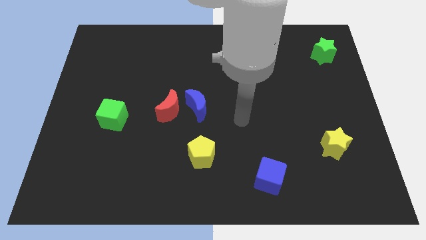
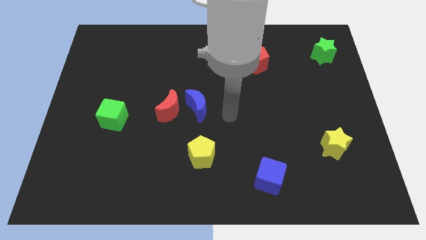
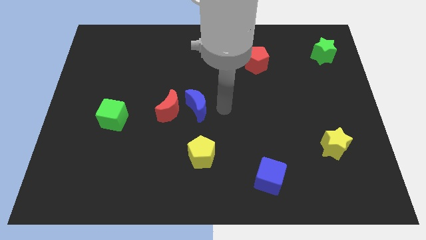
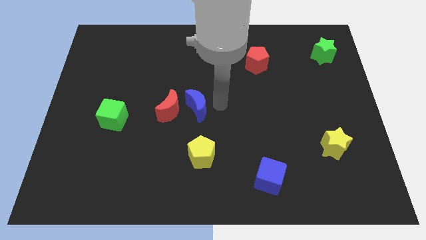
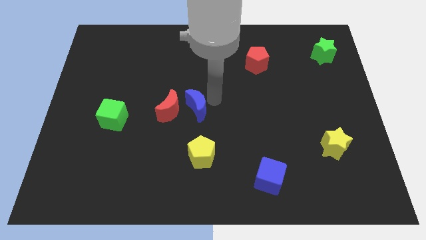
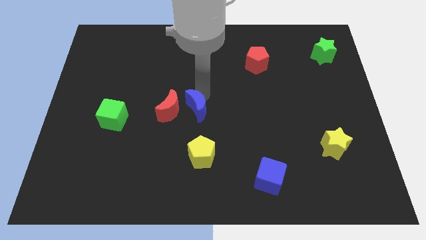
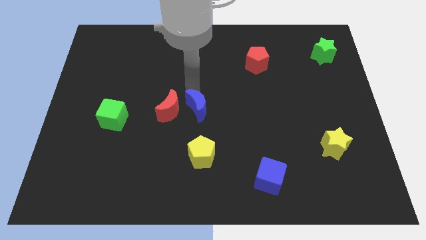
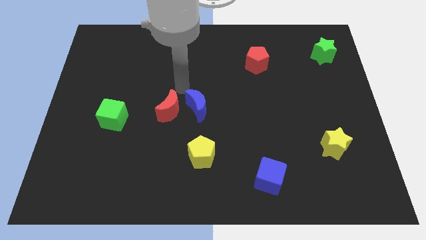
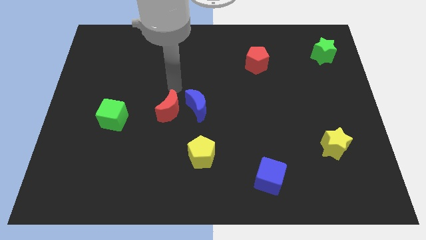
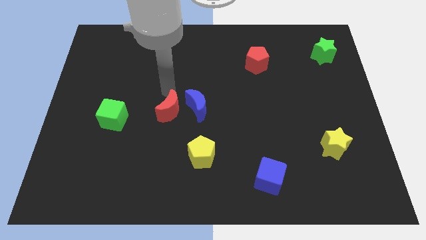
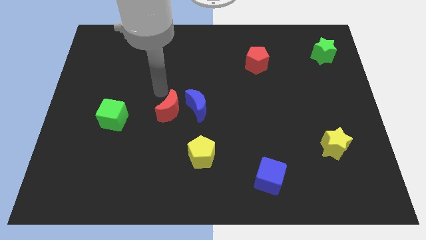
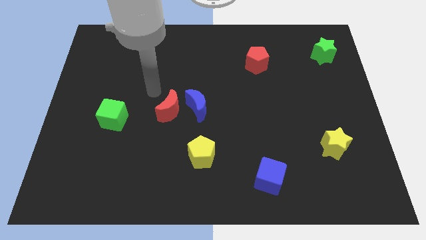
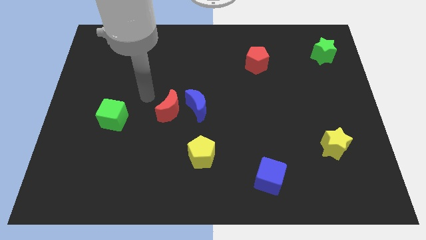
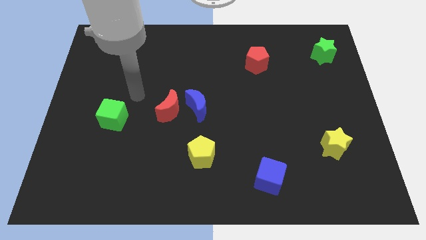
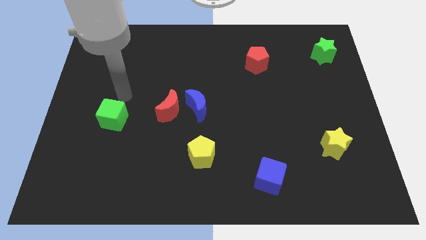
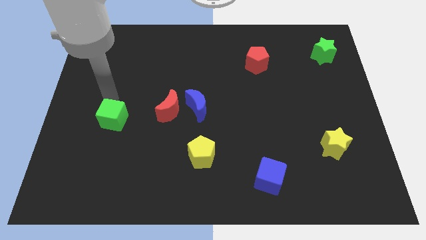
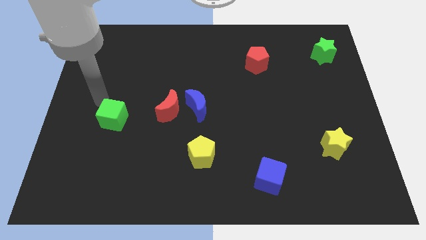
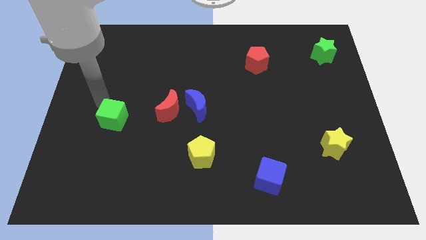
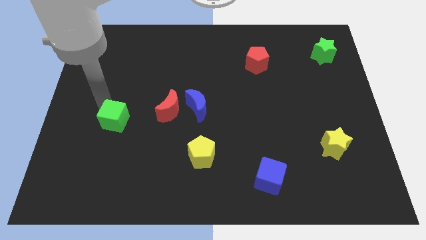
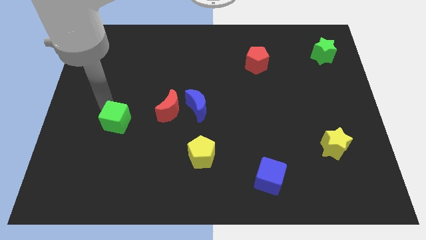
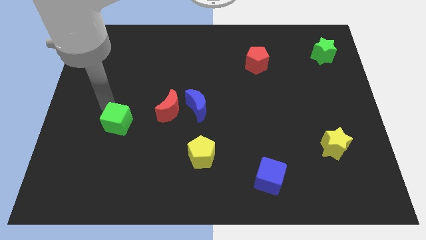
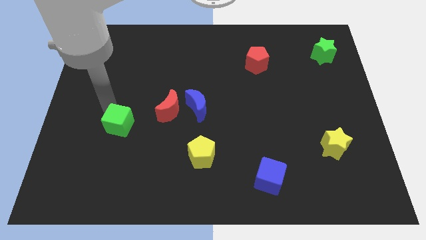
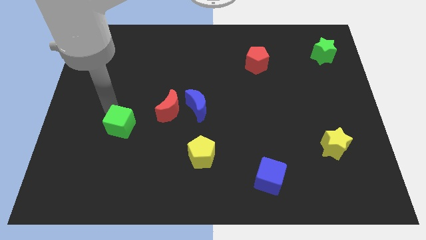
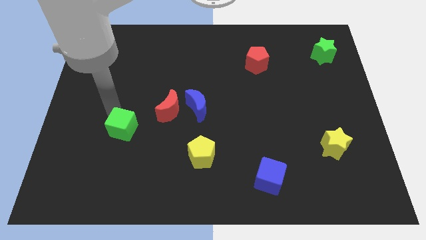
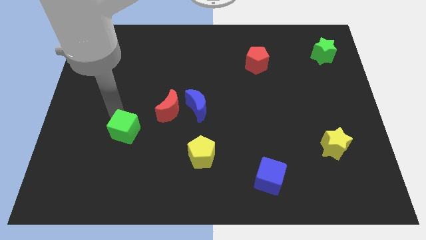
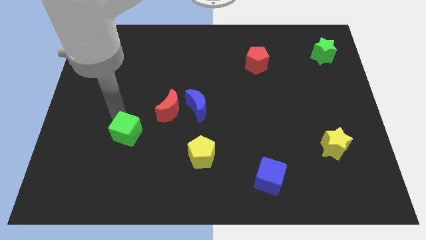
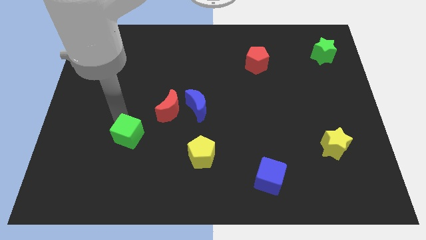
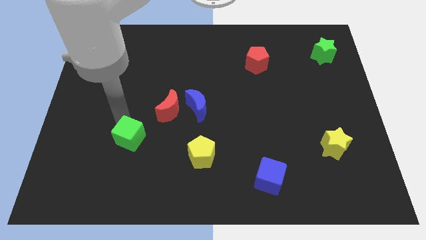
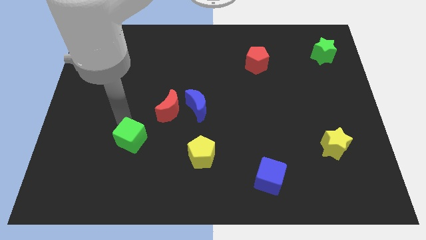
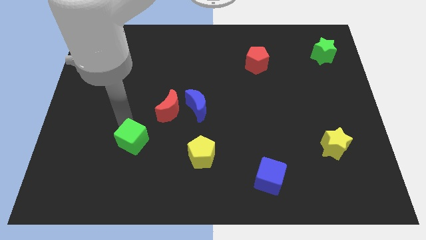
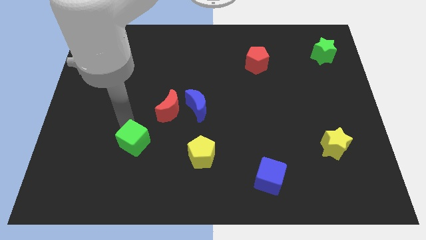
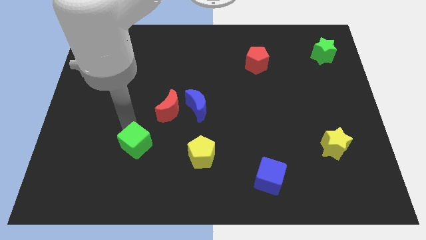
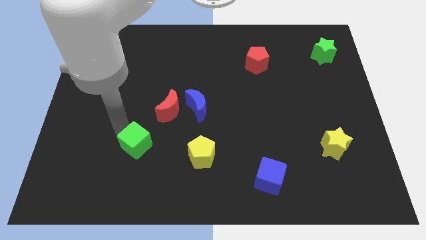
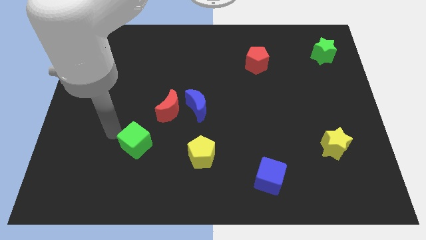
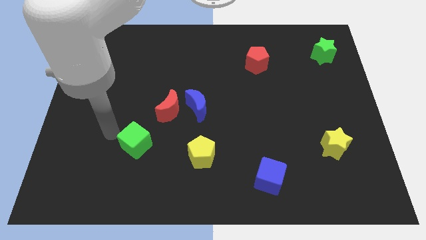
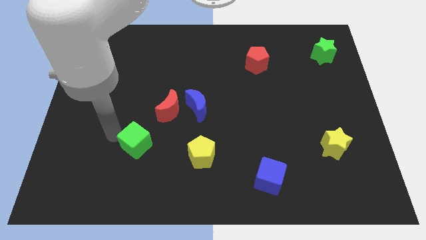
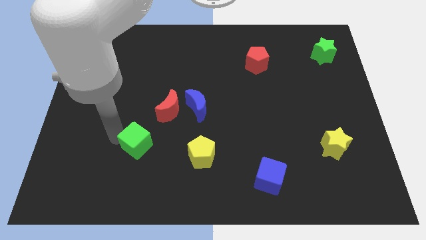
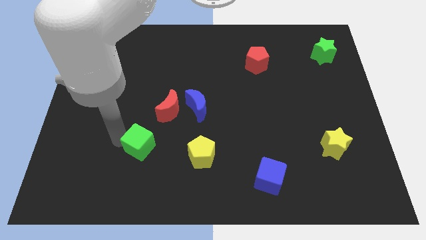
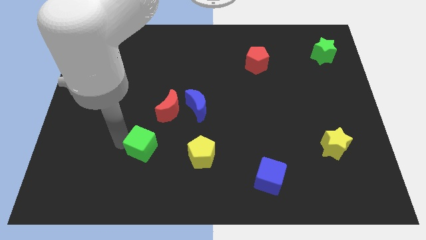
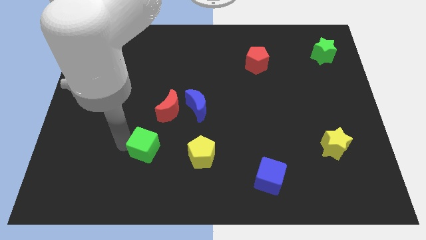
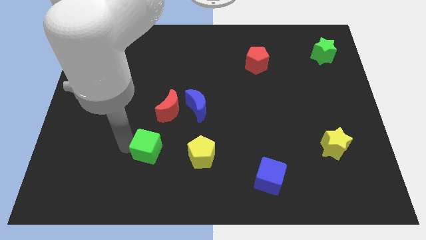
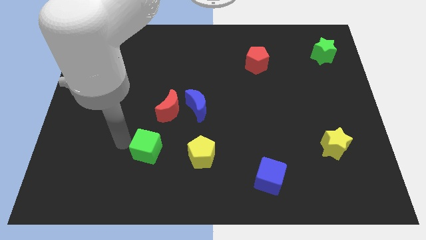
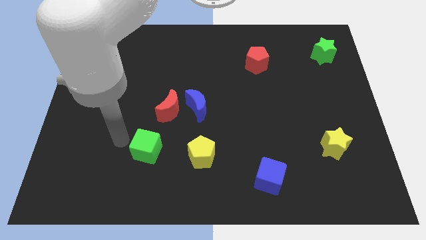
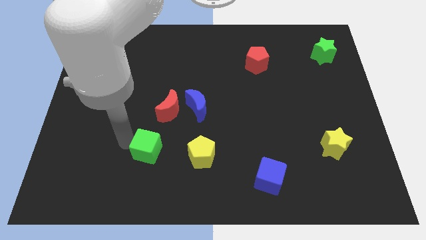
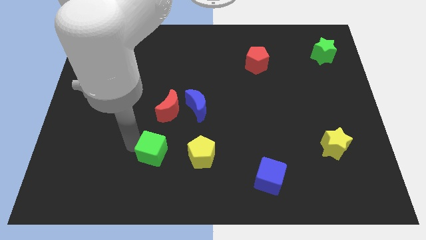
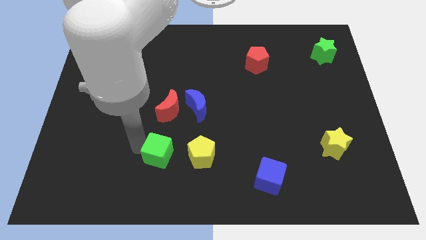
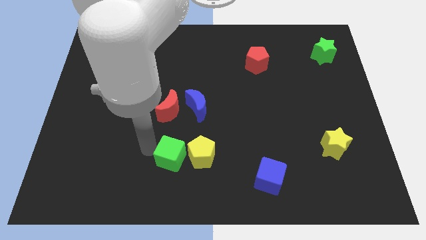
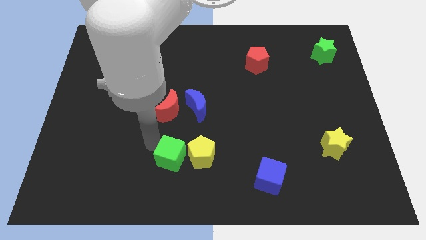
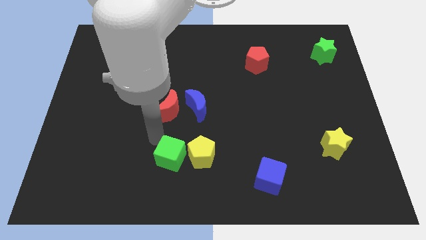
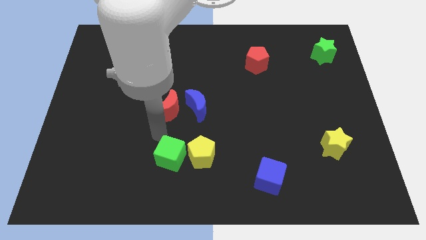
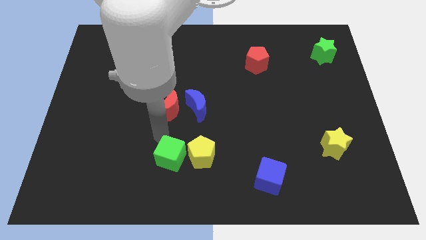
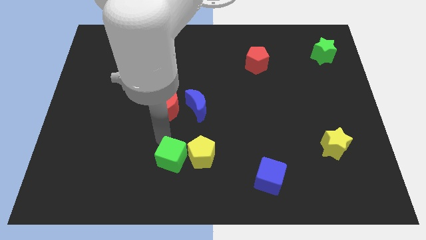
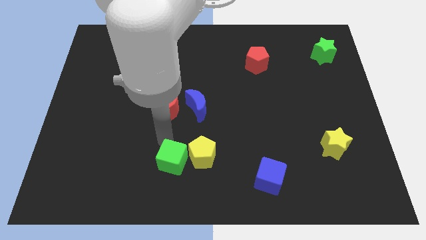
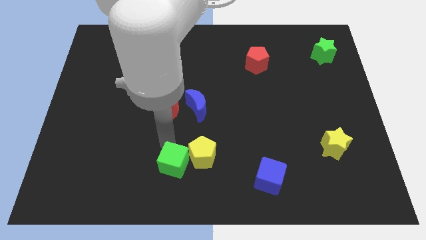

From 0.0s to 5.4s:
put the green cube to the bottom side

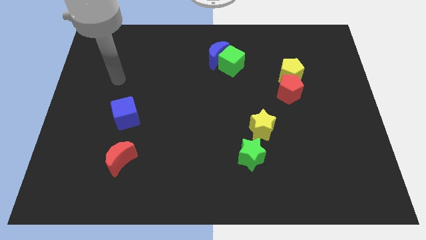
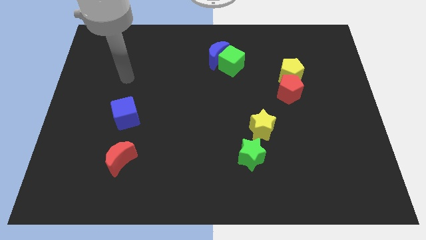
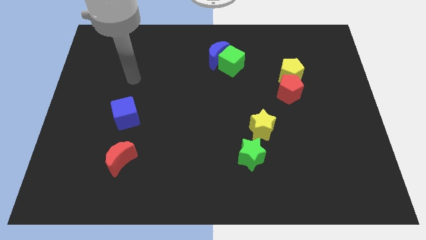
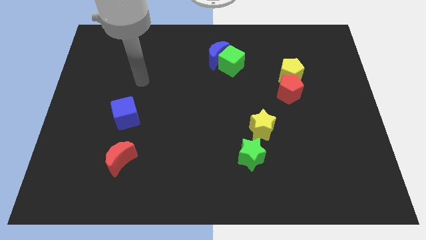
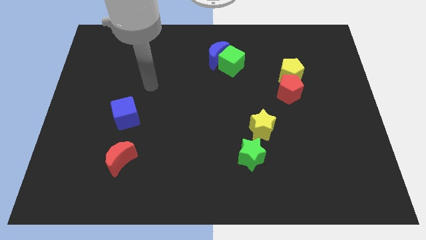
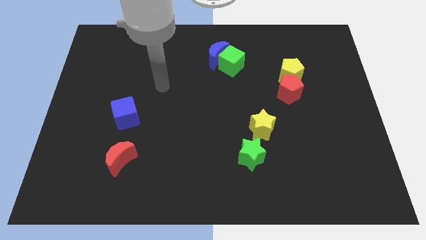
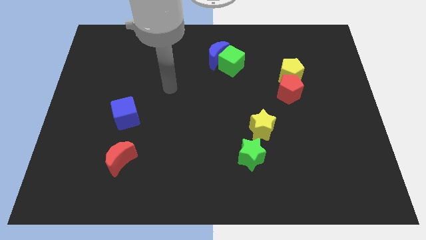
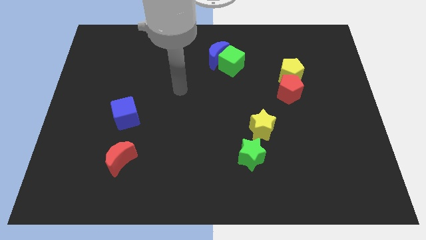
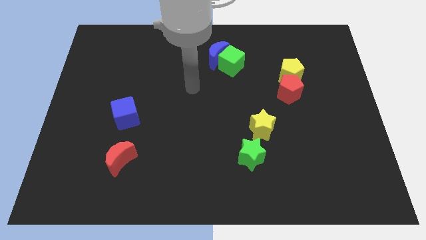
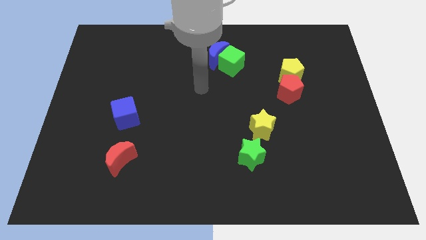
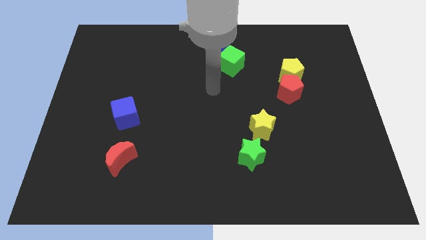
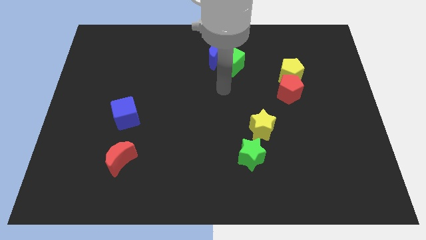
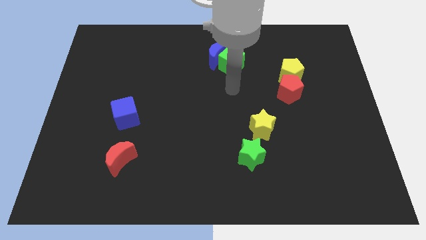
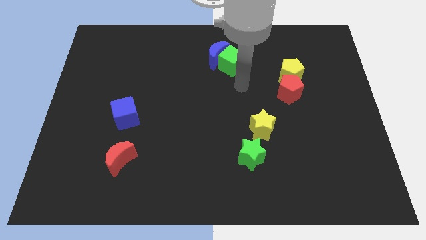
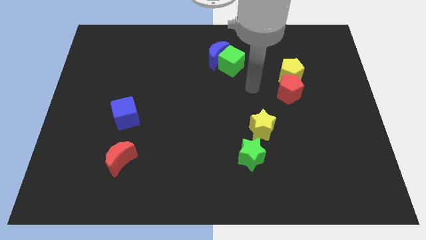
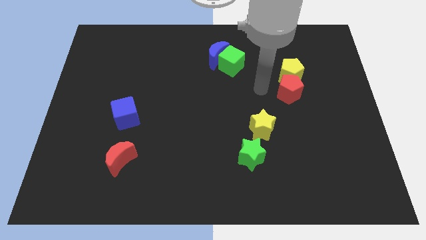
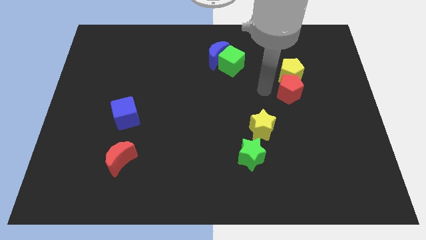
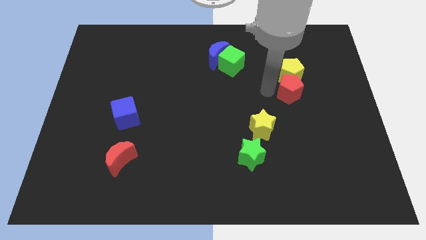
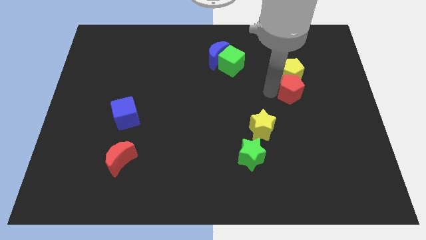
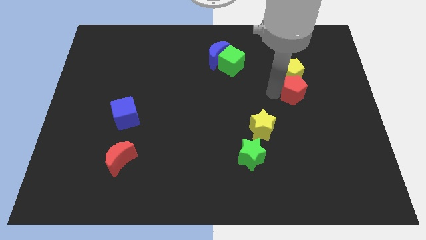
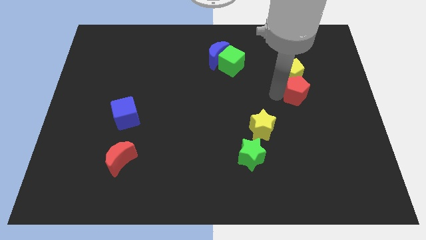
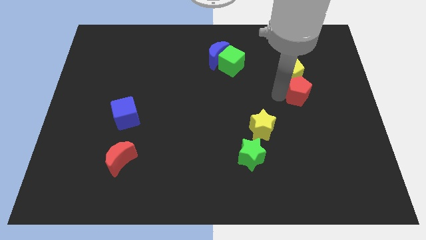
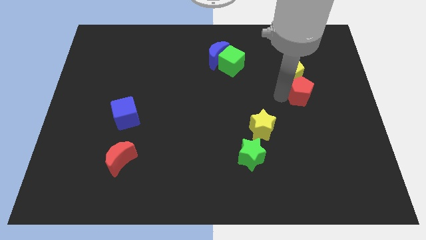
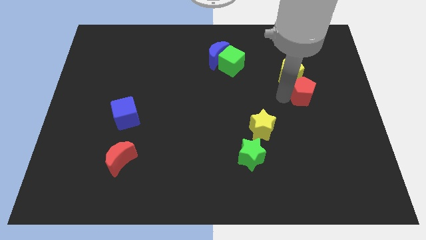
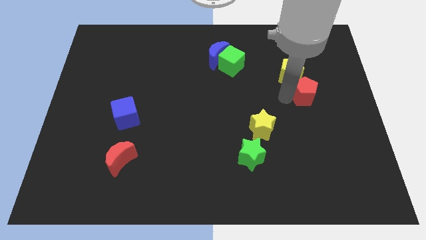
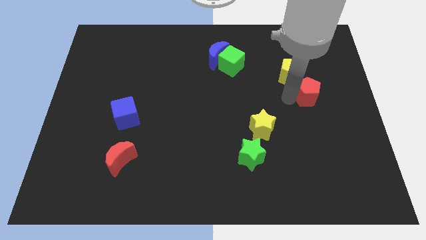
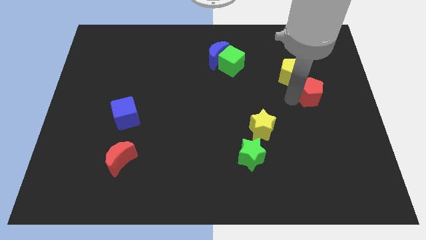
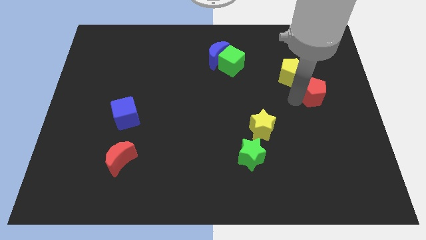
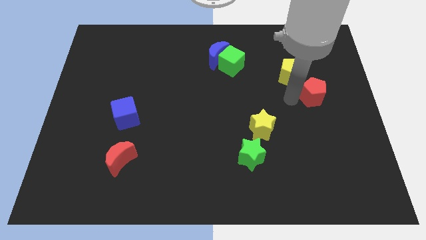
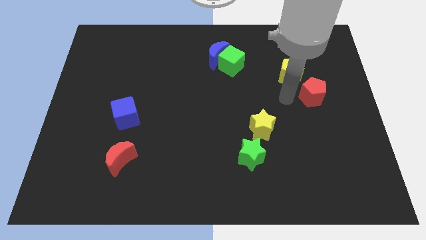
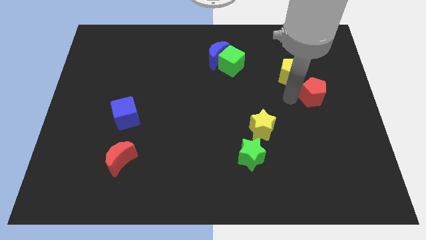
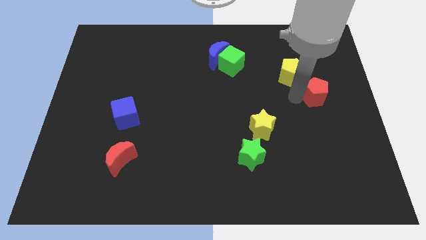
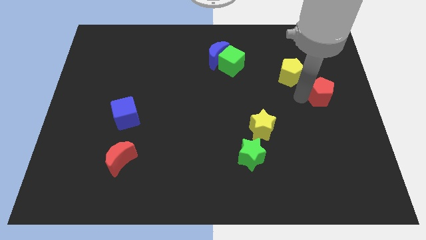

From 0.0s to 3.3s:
put the red pentagon to the right side of the board
